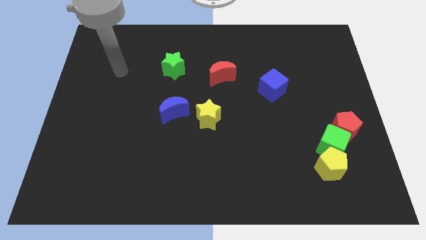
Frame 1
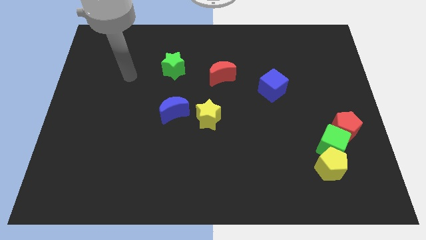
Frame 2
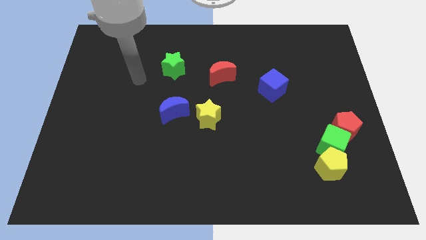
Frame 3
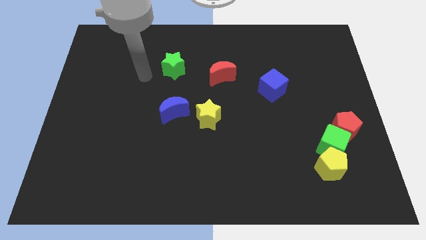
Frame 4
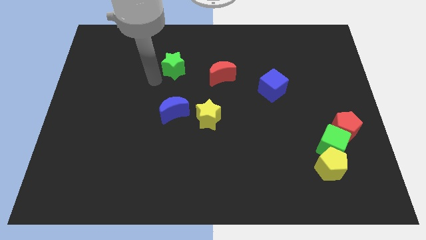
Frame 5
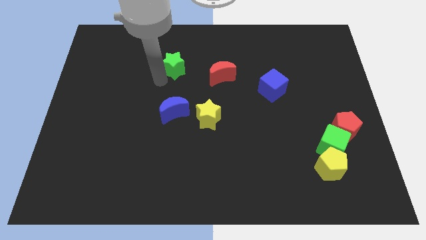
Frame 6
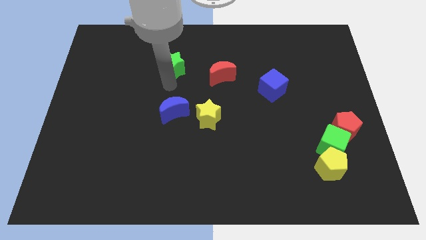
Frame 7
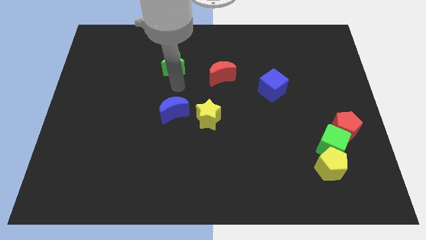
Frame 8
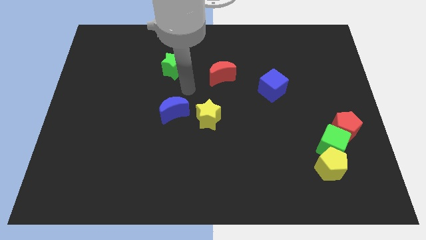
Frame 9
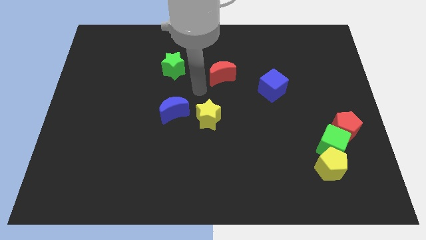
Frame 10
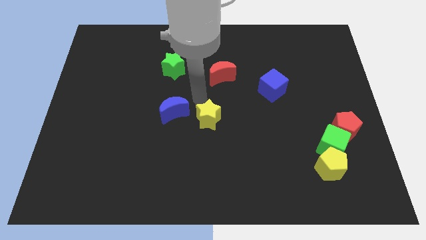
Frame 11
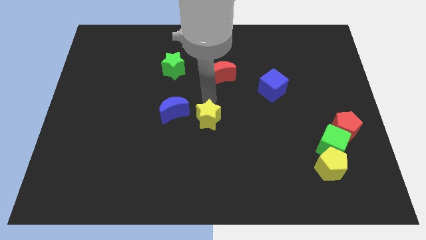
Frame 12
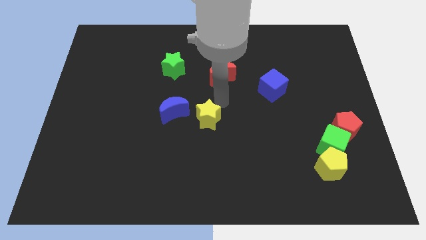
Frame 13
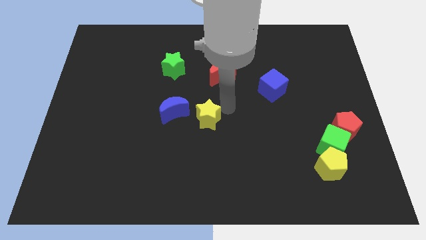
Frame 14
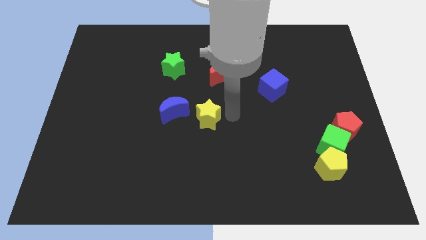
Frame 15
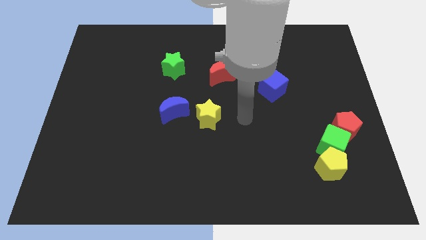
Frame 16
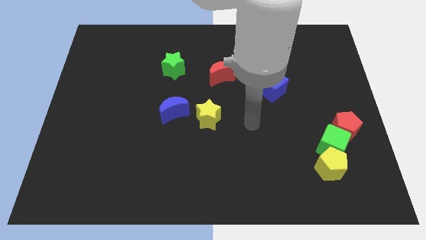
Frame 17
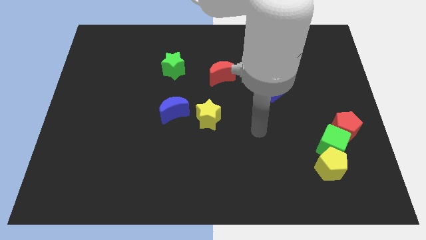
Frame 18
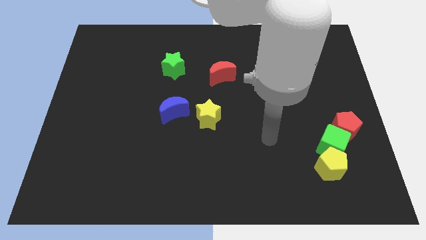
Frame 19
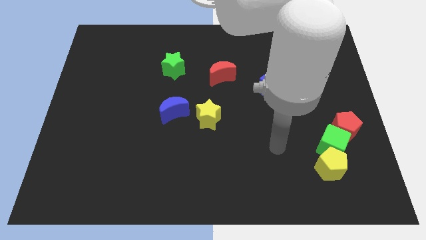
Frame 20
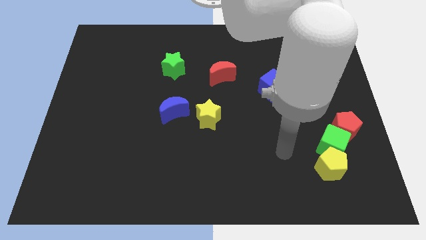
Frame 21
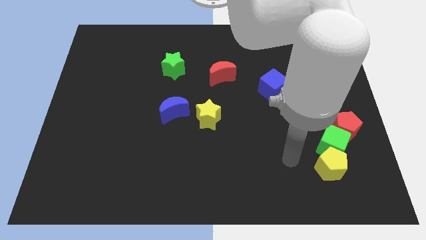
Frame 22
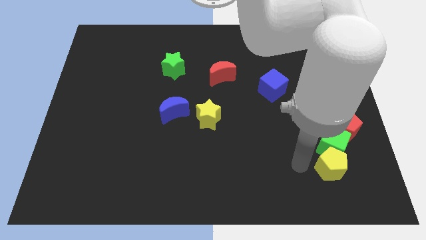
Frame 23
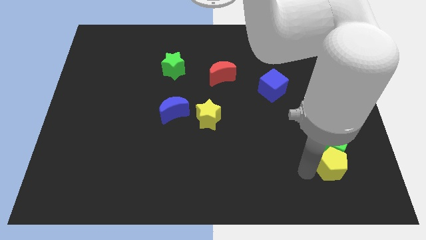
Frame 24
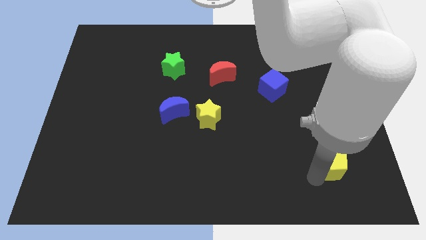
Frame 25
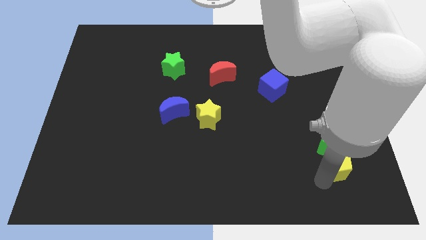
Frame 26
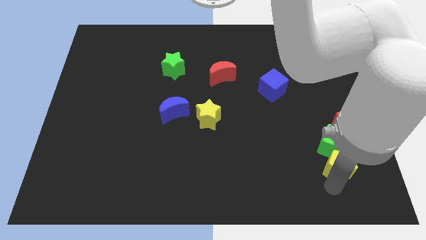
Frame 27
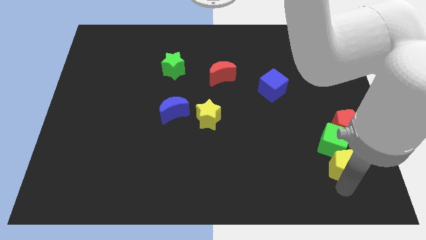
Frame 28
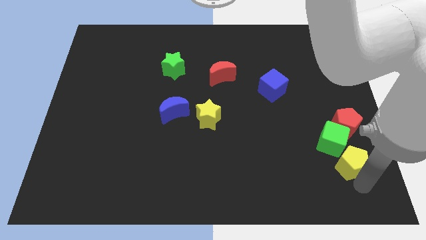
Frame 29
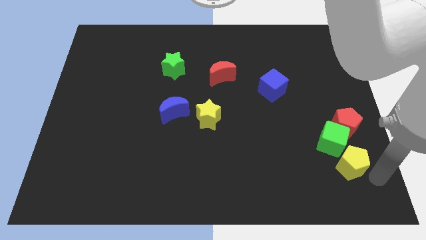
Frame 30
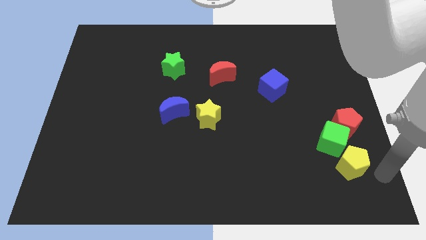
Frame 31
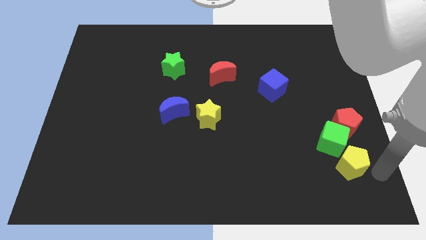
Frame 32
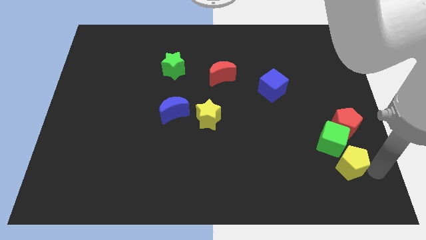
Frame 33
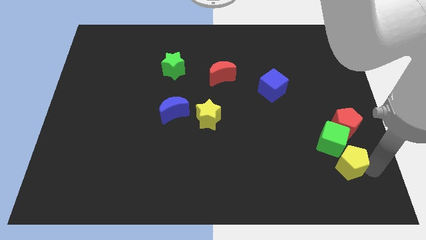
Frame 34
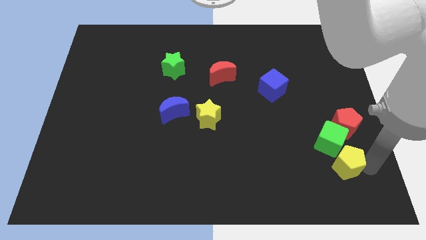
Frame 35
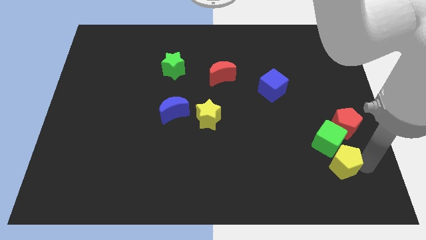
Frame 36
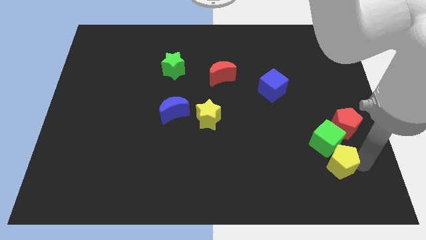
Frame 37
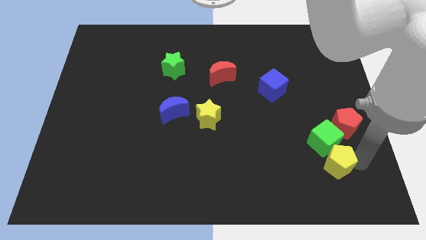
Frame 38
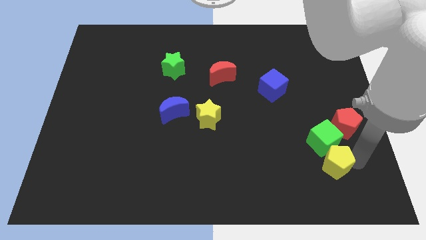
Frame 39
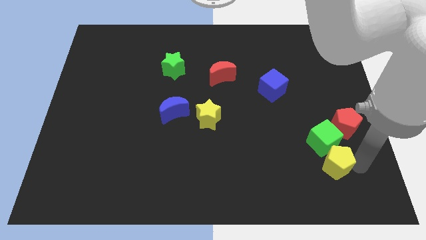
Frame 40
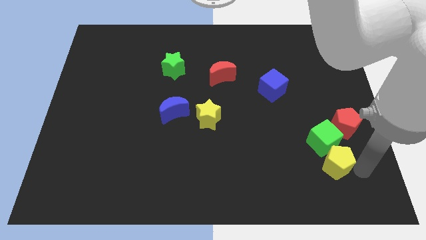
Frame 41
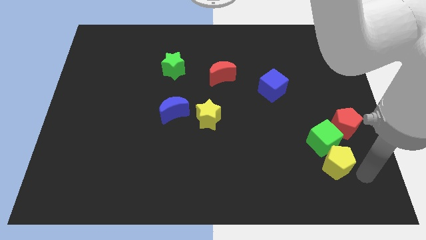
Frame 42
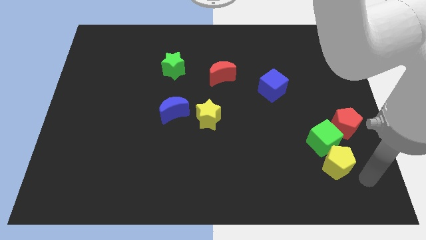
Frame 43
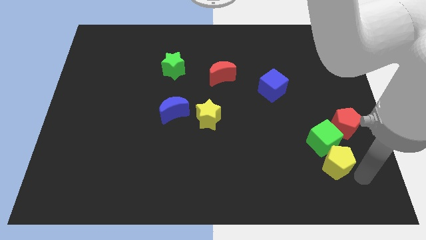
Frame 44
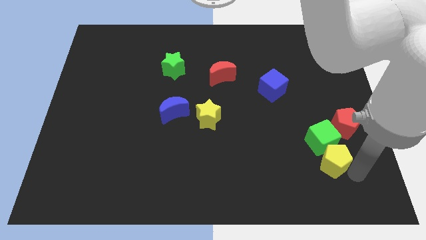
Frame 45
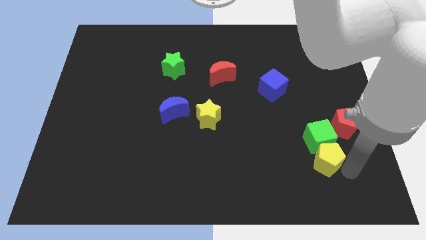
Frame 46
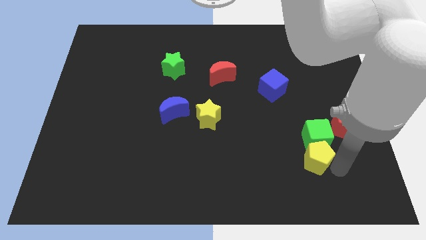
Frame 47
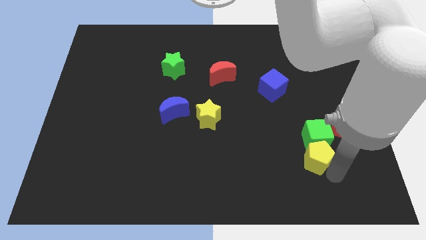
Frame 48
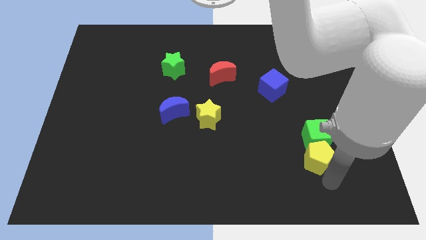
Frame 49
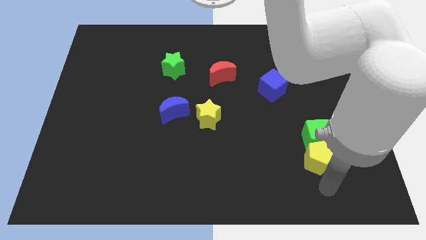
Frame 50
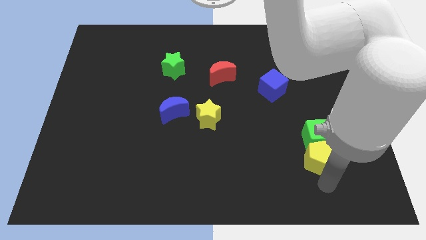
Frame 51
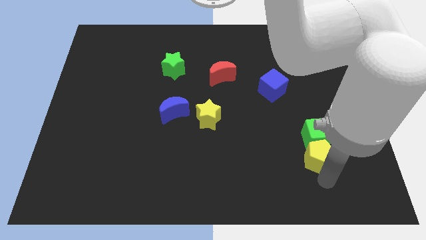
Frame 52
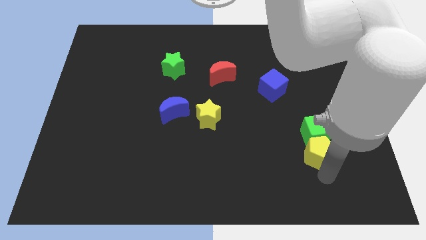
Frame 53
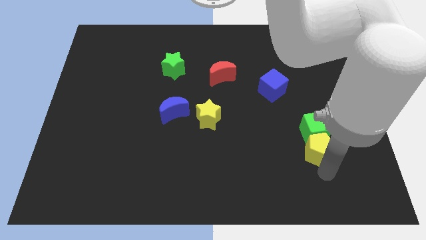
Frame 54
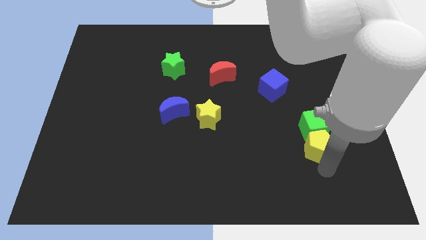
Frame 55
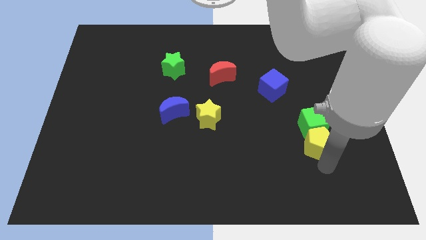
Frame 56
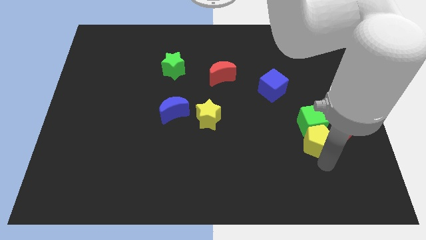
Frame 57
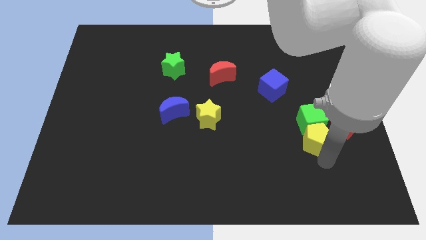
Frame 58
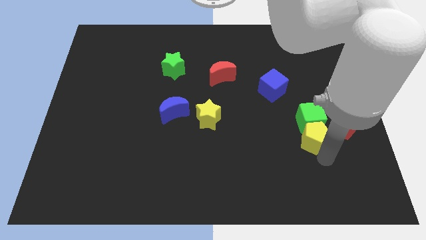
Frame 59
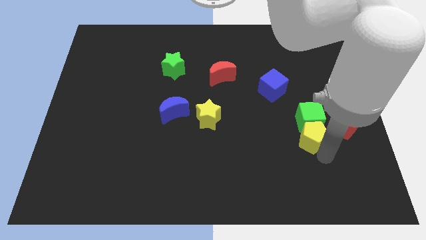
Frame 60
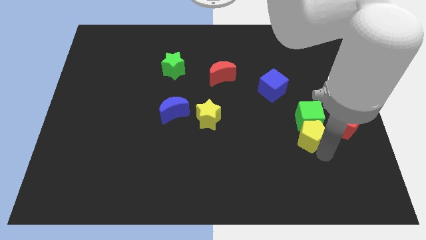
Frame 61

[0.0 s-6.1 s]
move the yellow pentagon slightly upwards

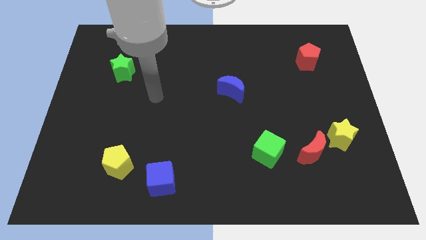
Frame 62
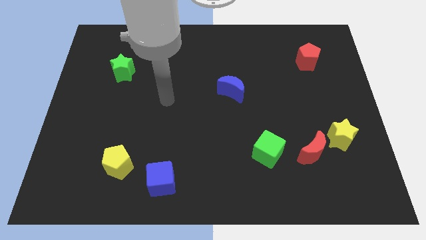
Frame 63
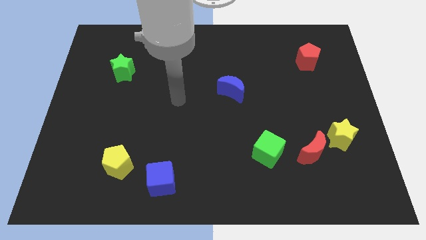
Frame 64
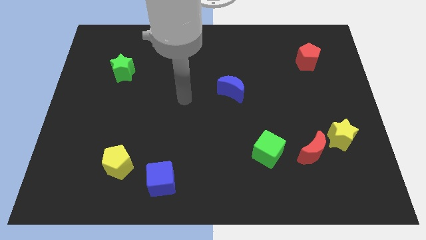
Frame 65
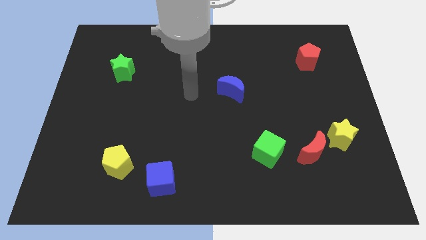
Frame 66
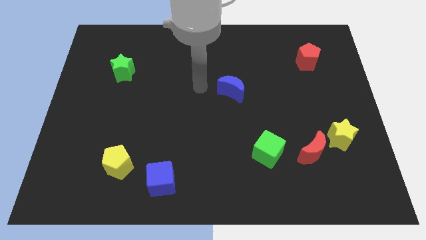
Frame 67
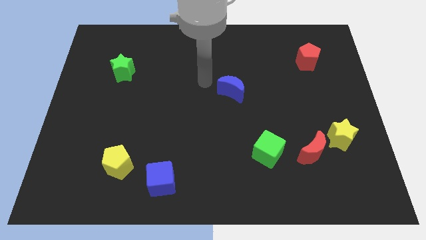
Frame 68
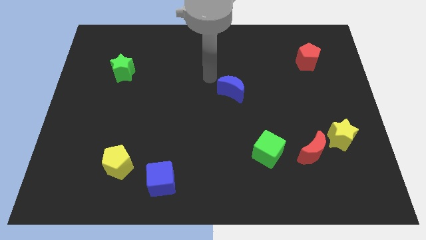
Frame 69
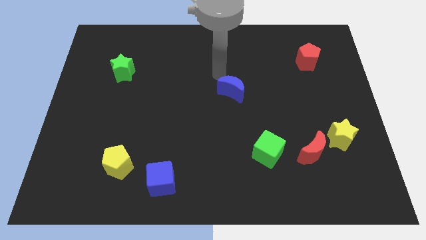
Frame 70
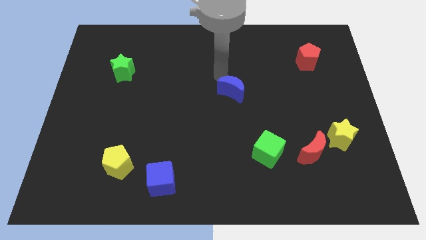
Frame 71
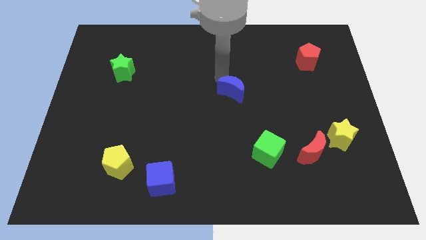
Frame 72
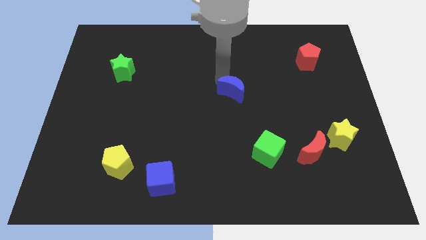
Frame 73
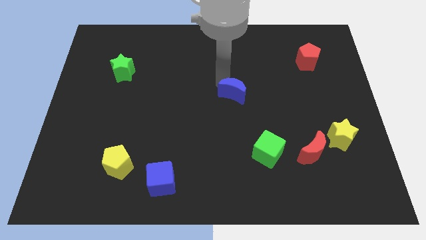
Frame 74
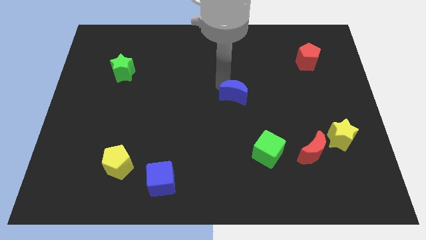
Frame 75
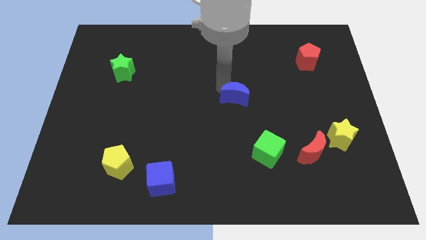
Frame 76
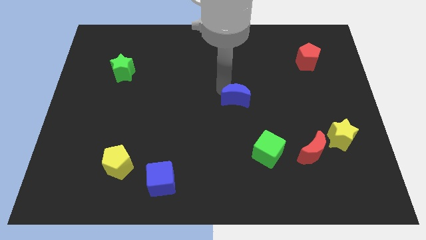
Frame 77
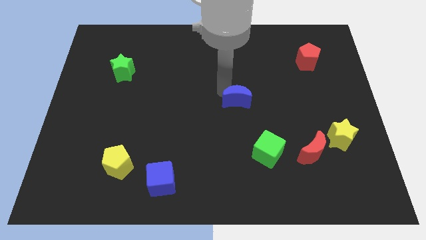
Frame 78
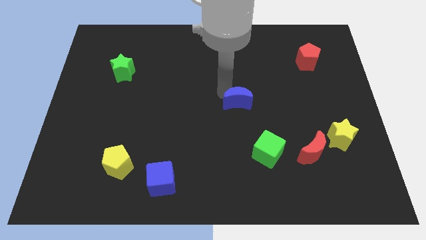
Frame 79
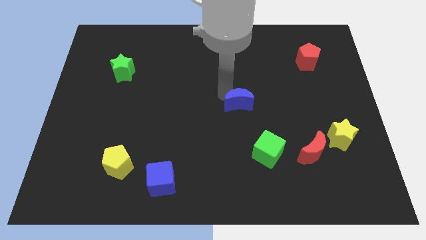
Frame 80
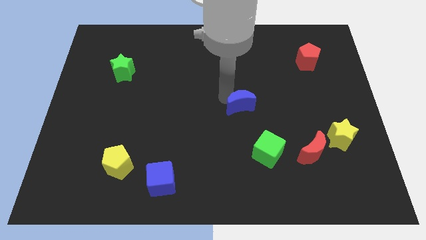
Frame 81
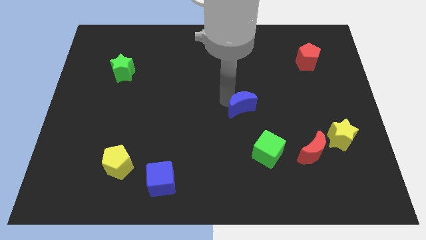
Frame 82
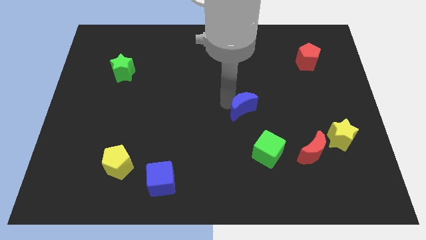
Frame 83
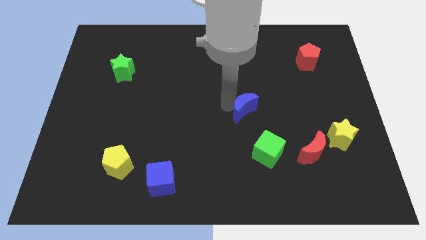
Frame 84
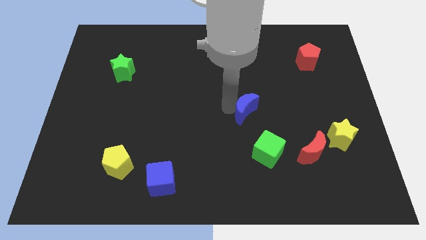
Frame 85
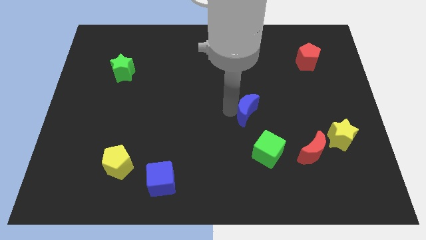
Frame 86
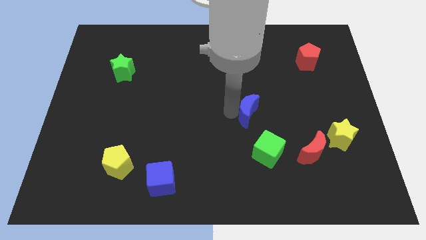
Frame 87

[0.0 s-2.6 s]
slide the blue moon somewhat diagonally downwards and right
